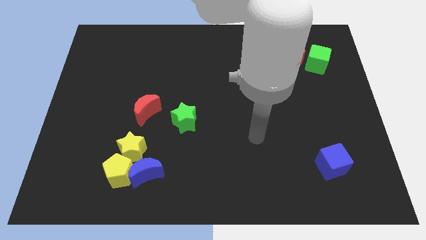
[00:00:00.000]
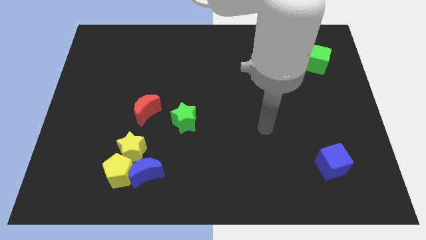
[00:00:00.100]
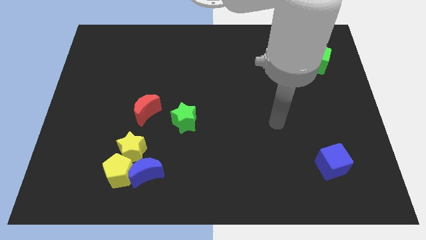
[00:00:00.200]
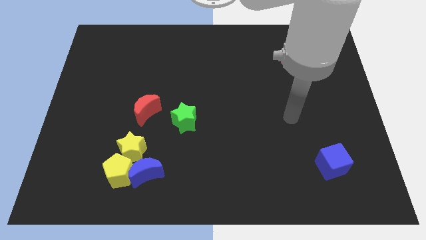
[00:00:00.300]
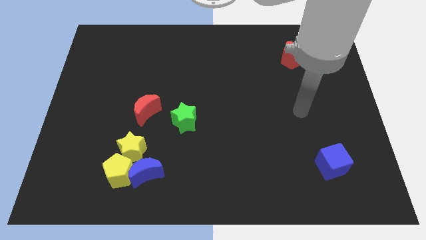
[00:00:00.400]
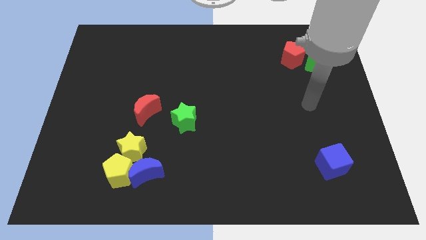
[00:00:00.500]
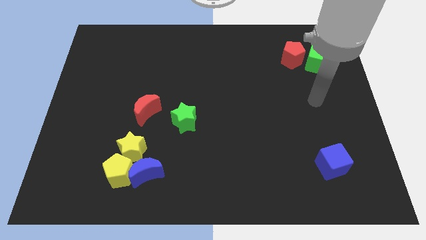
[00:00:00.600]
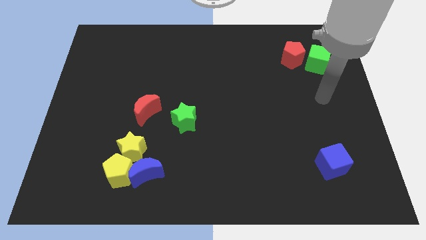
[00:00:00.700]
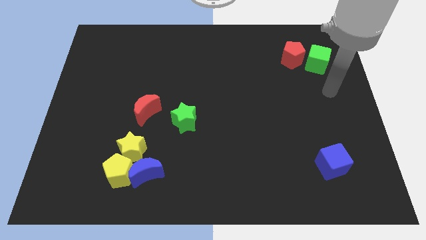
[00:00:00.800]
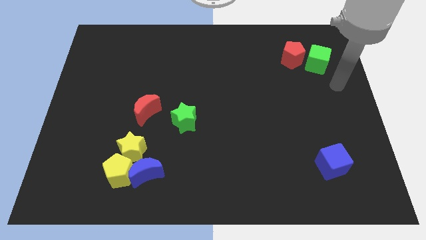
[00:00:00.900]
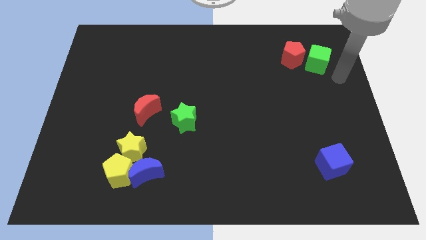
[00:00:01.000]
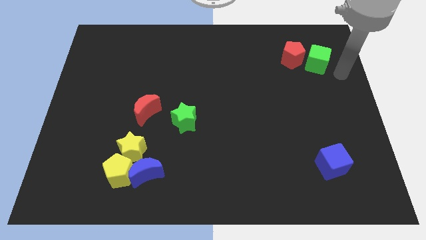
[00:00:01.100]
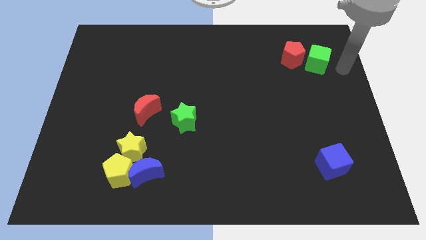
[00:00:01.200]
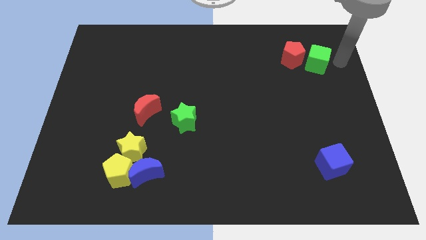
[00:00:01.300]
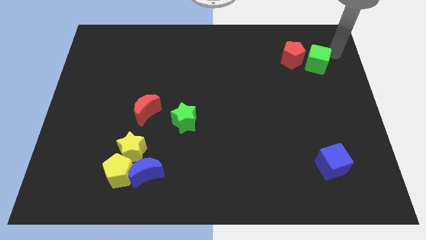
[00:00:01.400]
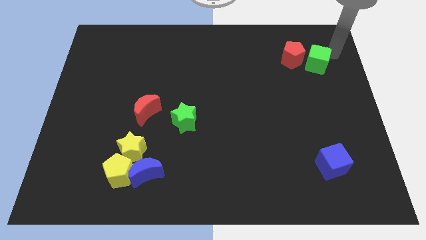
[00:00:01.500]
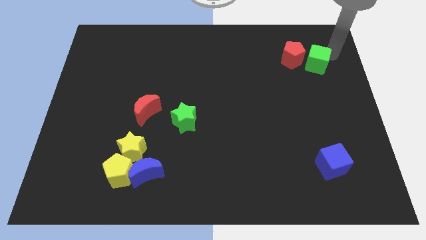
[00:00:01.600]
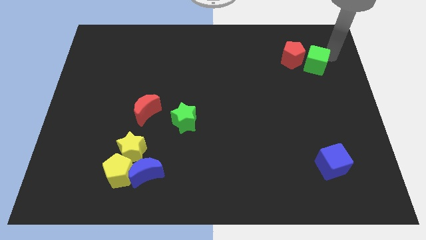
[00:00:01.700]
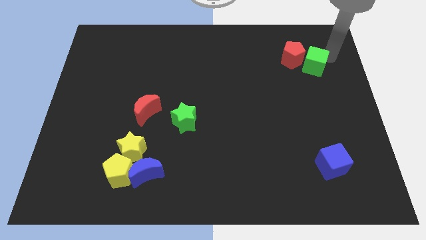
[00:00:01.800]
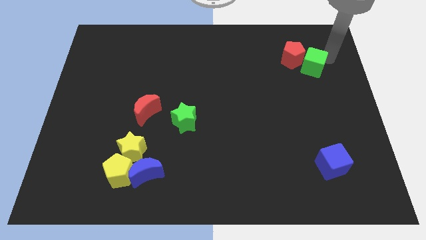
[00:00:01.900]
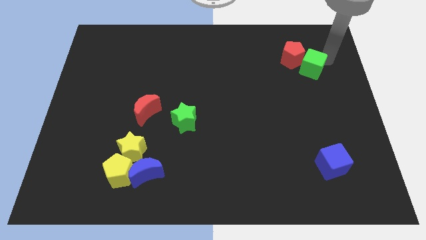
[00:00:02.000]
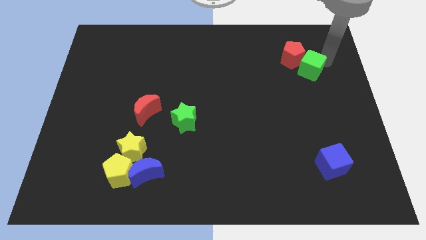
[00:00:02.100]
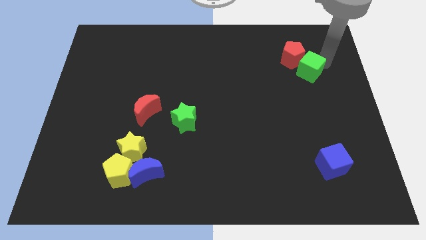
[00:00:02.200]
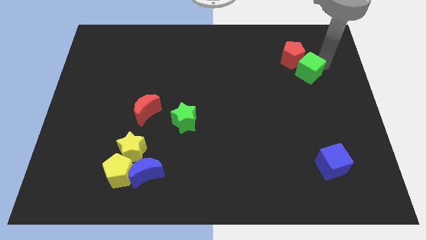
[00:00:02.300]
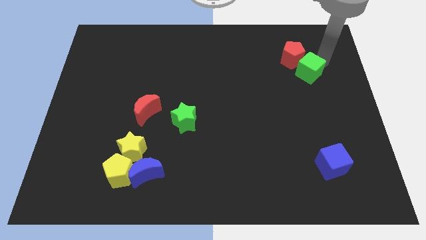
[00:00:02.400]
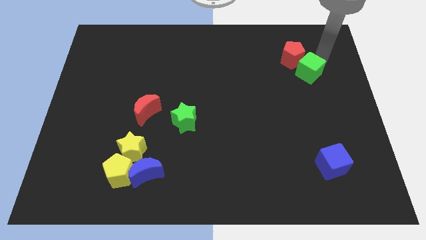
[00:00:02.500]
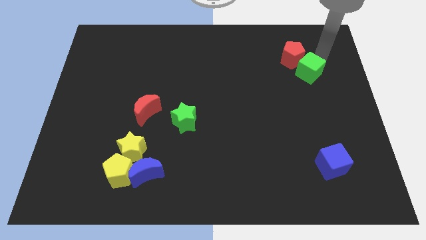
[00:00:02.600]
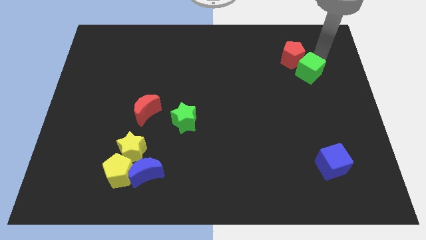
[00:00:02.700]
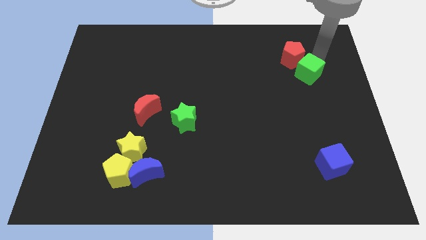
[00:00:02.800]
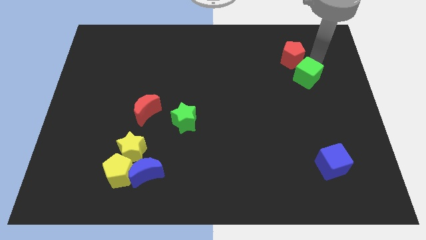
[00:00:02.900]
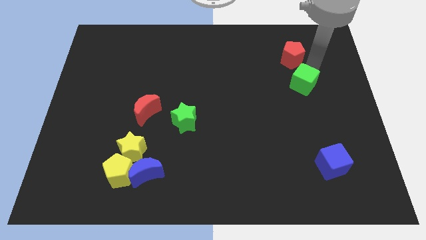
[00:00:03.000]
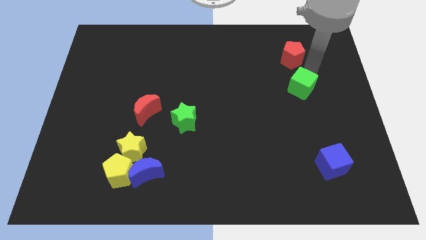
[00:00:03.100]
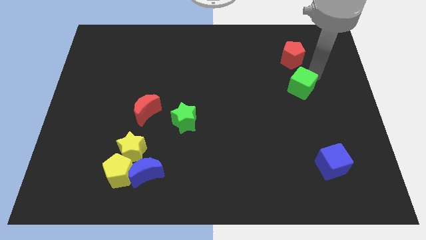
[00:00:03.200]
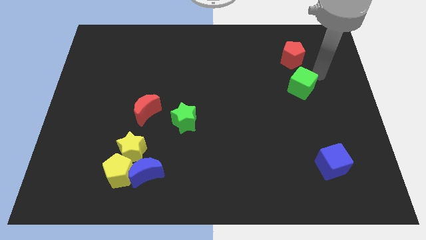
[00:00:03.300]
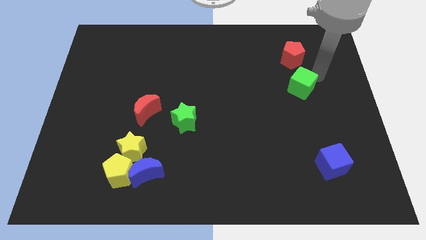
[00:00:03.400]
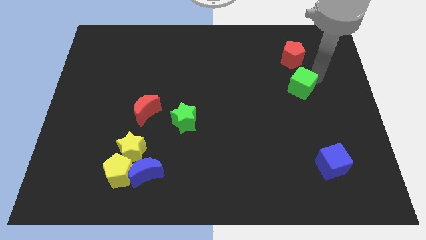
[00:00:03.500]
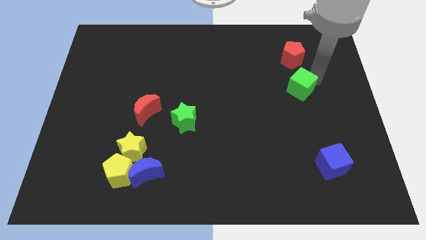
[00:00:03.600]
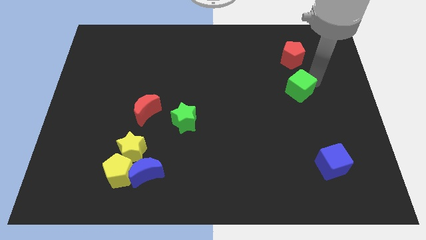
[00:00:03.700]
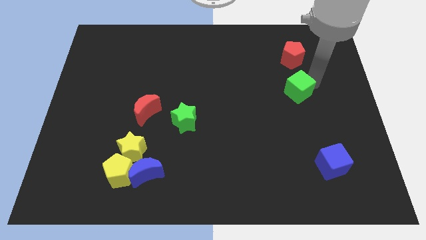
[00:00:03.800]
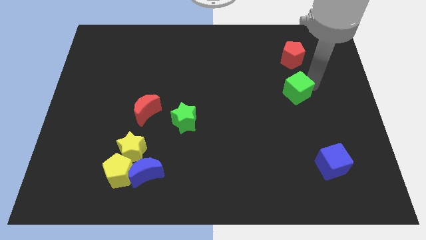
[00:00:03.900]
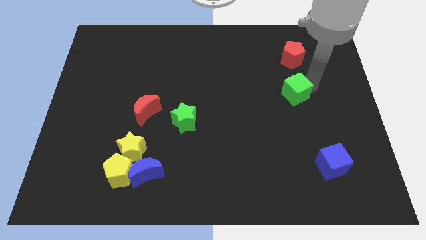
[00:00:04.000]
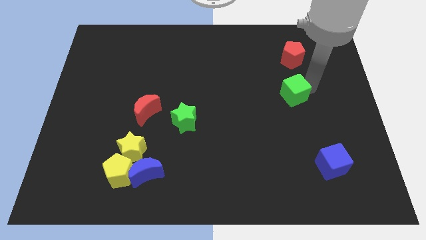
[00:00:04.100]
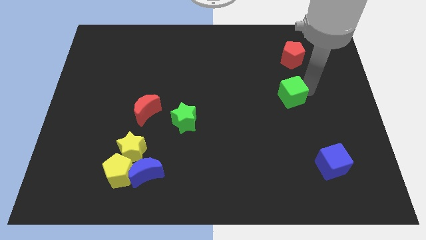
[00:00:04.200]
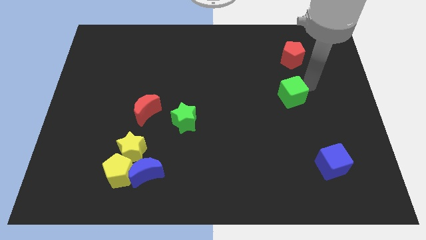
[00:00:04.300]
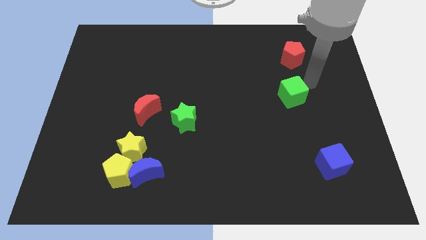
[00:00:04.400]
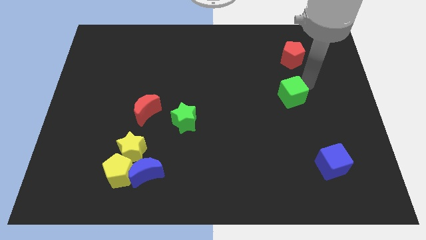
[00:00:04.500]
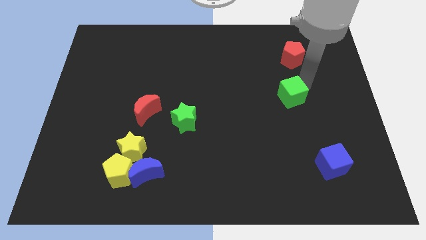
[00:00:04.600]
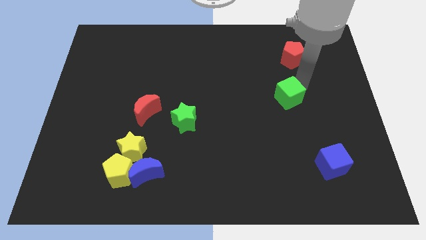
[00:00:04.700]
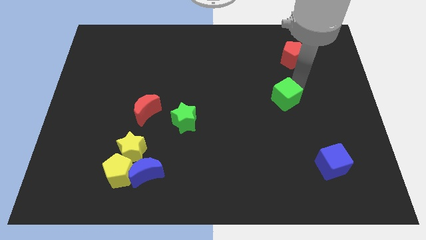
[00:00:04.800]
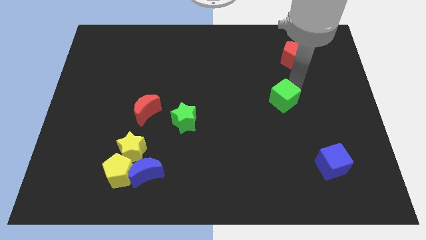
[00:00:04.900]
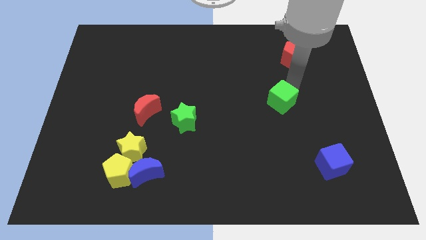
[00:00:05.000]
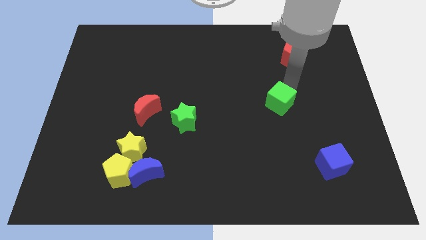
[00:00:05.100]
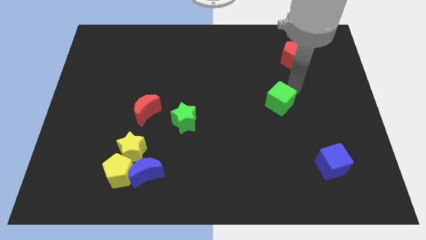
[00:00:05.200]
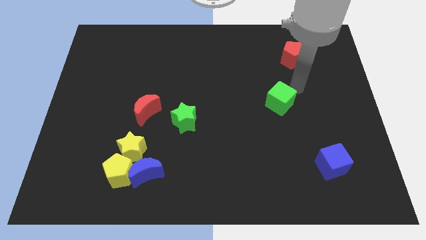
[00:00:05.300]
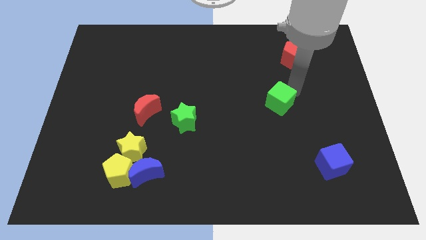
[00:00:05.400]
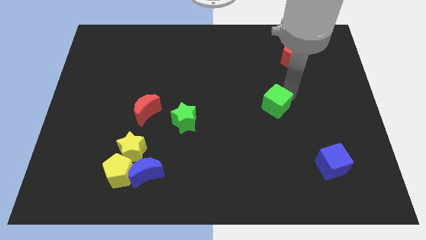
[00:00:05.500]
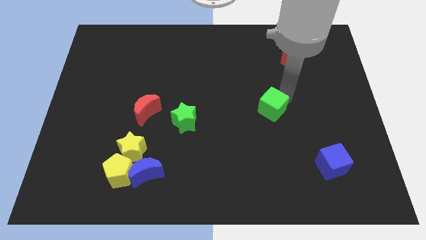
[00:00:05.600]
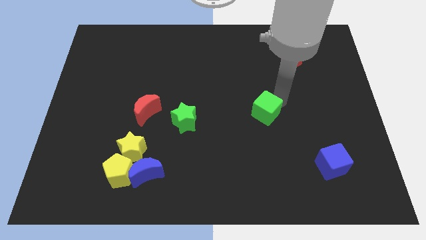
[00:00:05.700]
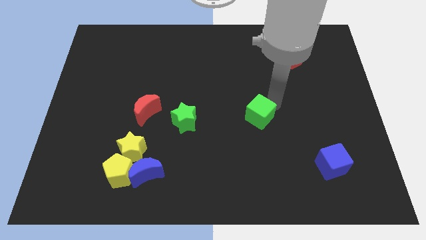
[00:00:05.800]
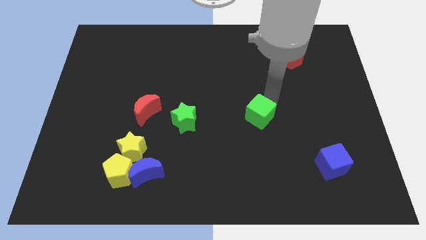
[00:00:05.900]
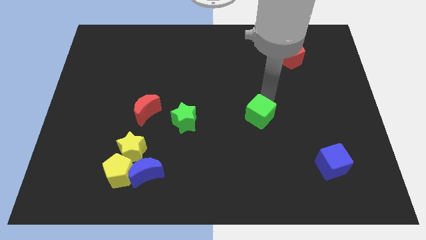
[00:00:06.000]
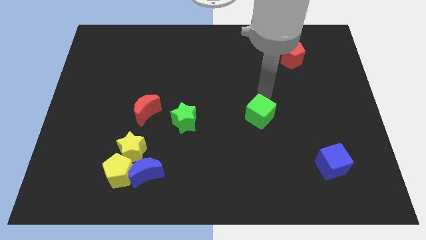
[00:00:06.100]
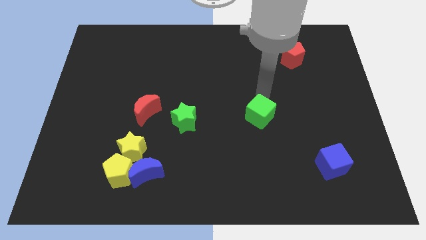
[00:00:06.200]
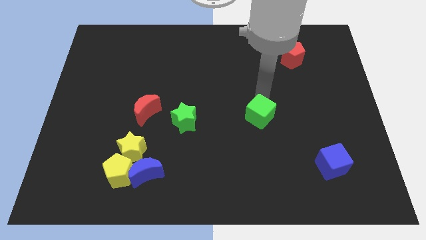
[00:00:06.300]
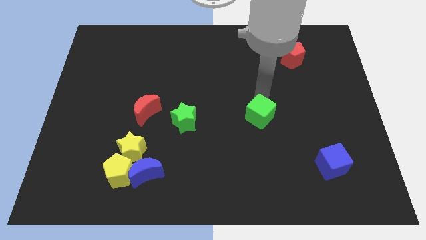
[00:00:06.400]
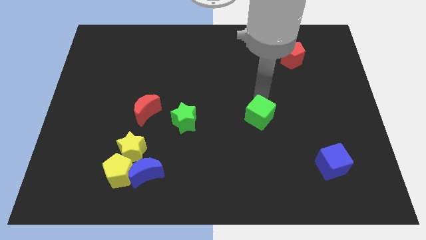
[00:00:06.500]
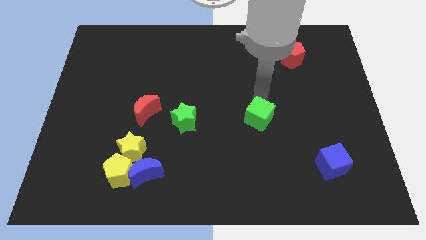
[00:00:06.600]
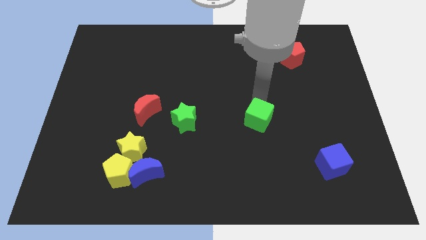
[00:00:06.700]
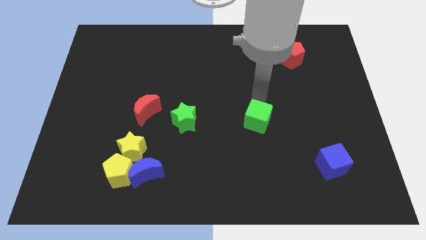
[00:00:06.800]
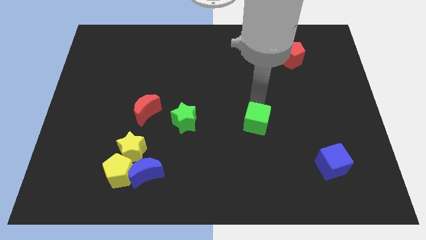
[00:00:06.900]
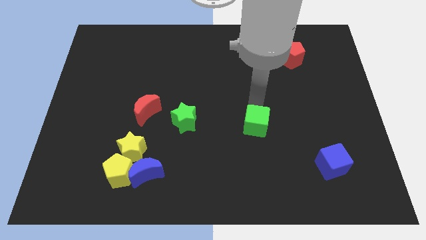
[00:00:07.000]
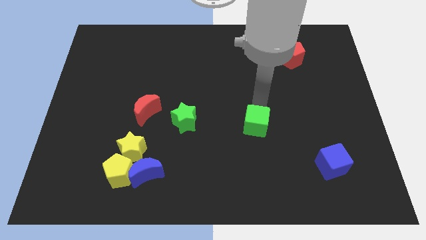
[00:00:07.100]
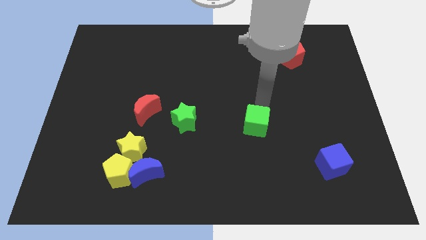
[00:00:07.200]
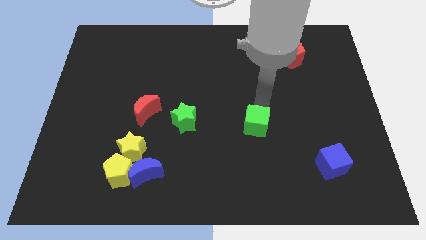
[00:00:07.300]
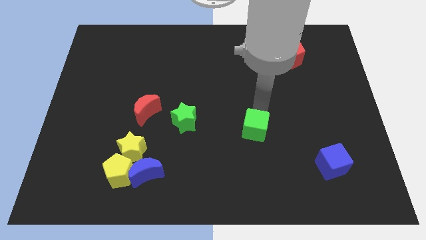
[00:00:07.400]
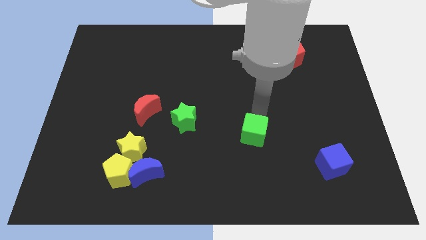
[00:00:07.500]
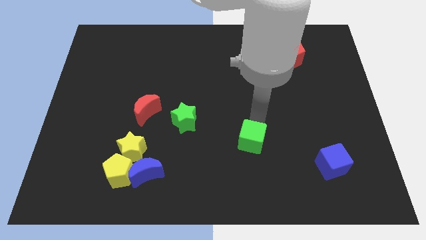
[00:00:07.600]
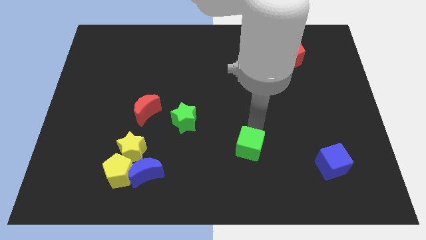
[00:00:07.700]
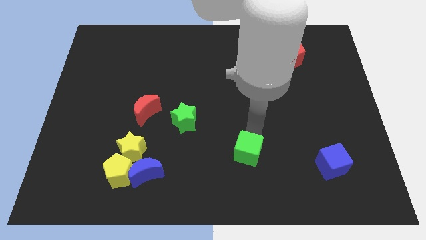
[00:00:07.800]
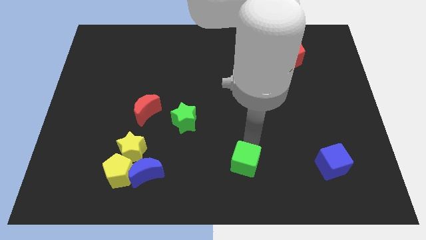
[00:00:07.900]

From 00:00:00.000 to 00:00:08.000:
slide the green cube to the bottom side

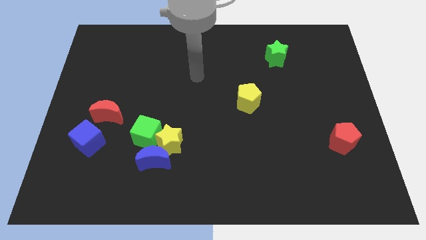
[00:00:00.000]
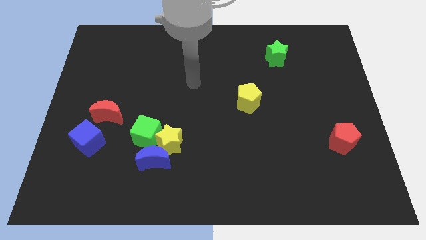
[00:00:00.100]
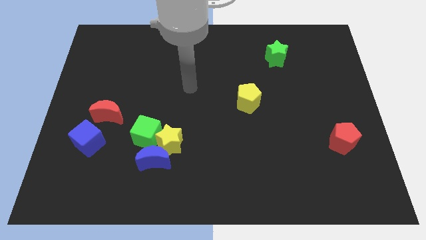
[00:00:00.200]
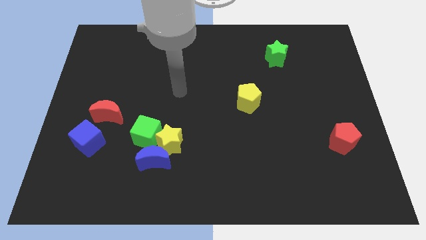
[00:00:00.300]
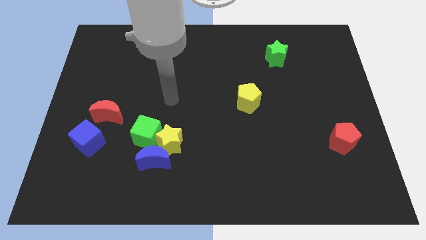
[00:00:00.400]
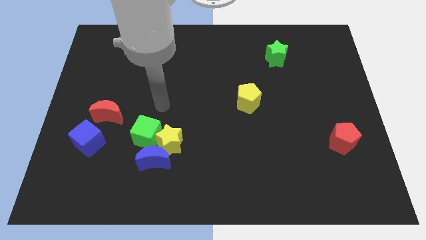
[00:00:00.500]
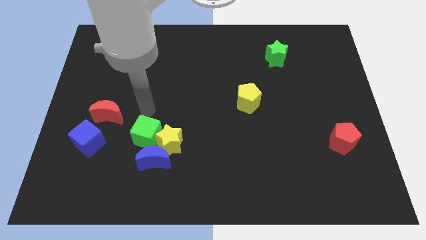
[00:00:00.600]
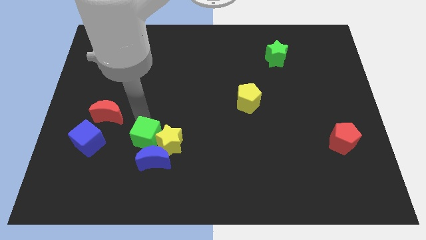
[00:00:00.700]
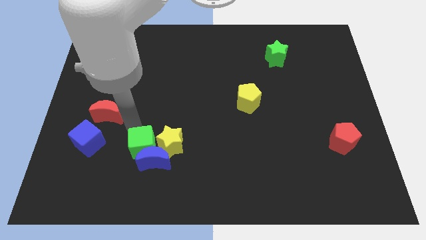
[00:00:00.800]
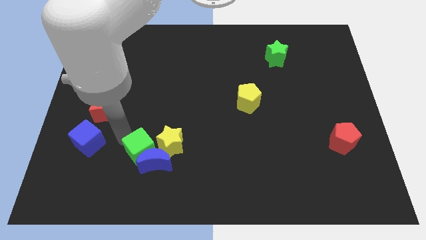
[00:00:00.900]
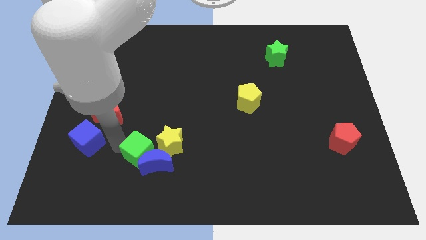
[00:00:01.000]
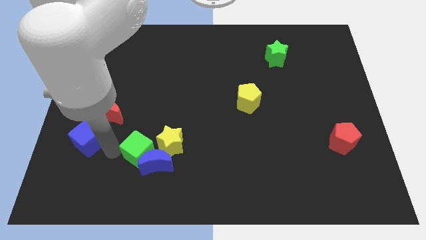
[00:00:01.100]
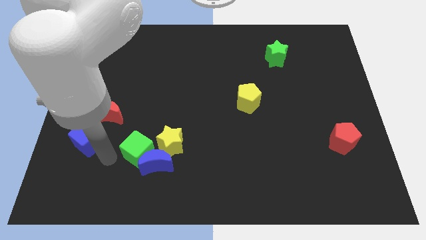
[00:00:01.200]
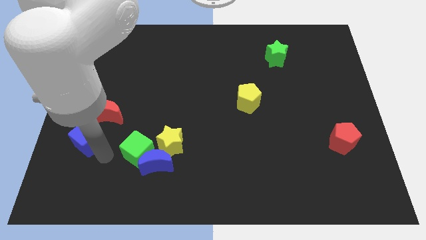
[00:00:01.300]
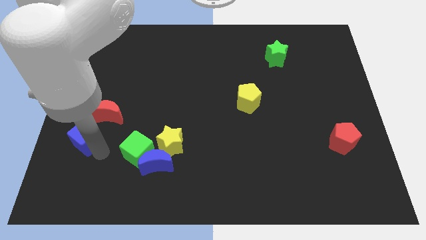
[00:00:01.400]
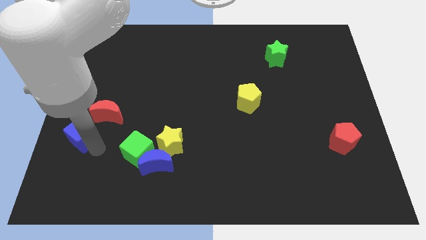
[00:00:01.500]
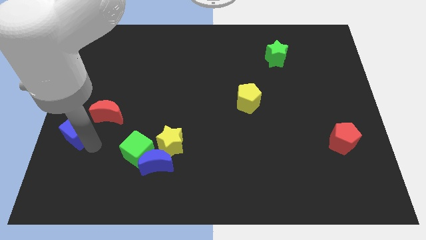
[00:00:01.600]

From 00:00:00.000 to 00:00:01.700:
push the blue cube to the left side
